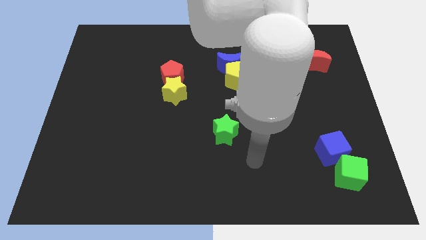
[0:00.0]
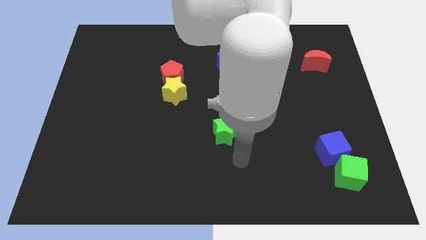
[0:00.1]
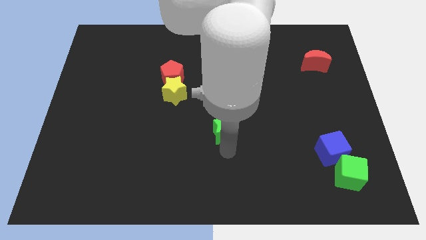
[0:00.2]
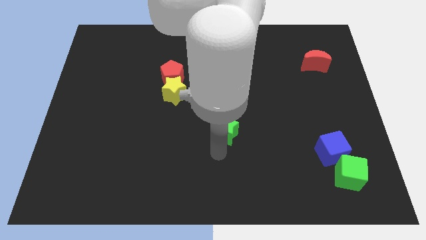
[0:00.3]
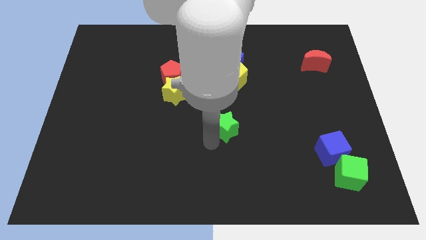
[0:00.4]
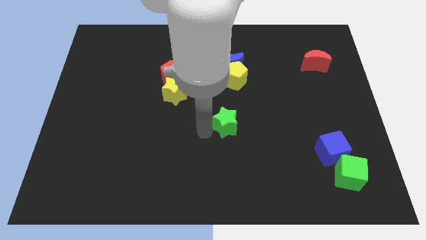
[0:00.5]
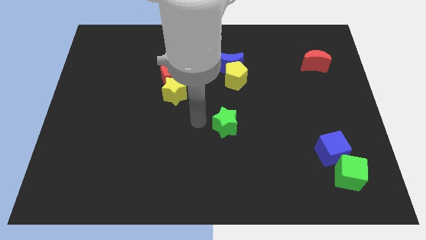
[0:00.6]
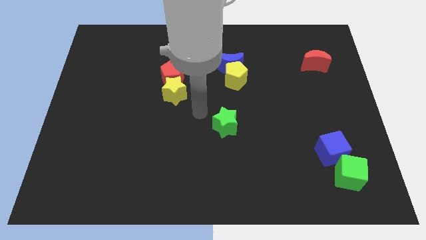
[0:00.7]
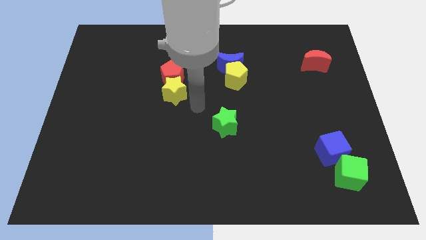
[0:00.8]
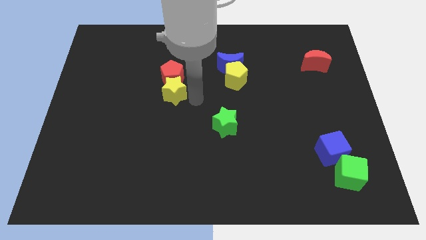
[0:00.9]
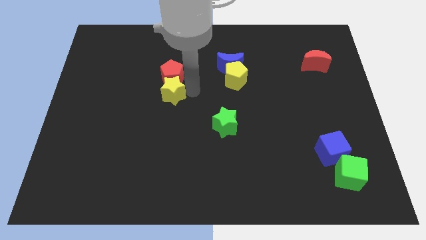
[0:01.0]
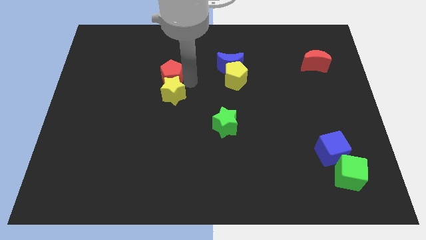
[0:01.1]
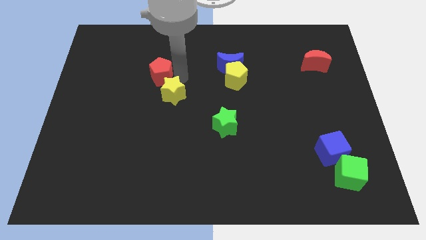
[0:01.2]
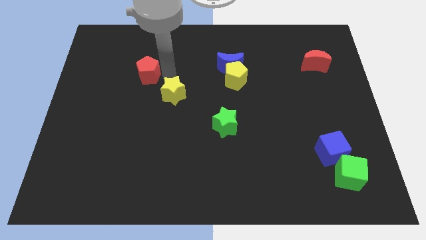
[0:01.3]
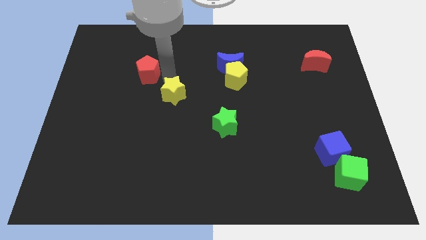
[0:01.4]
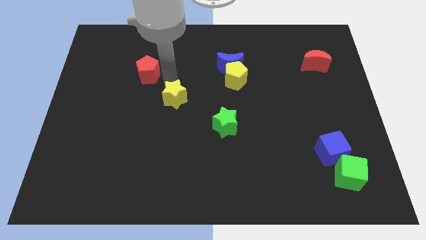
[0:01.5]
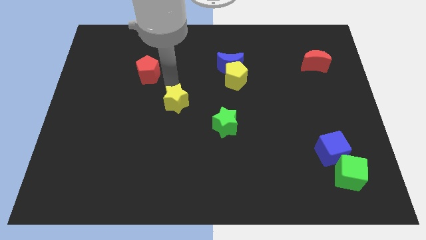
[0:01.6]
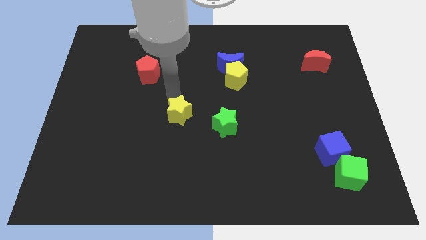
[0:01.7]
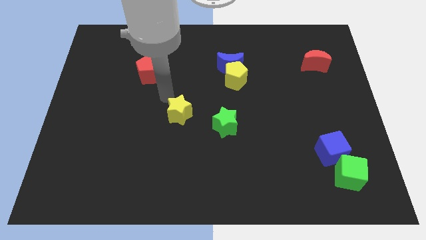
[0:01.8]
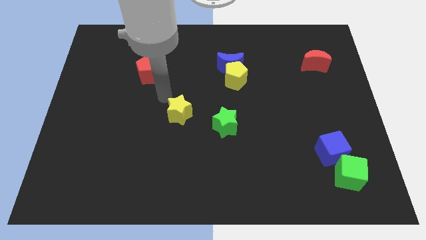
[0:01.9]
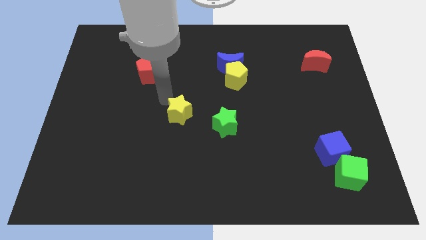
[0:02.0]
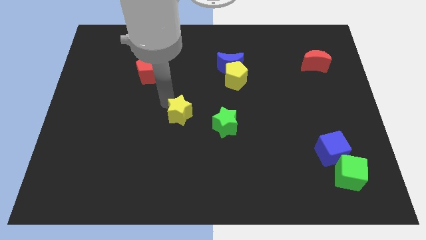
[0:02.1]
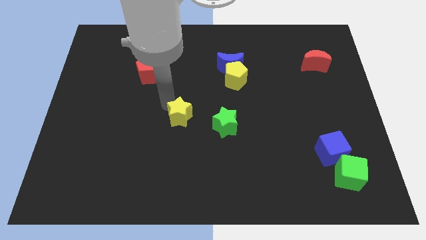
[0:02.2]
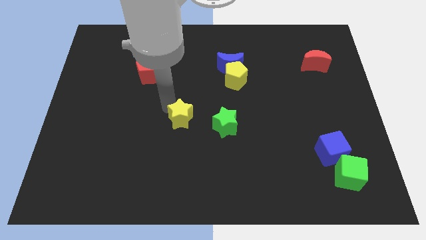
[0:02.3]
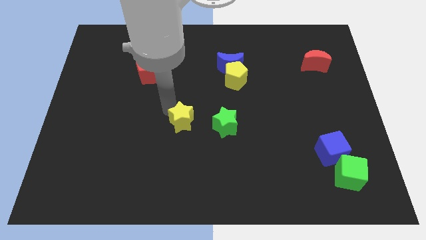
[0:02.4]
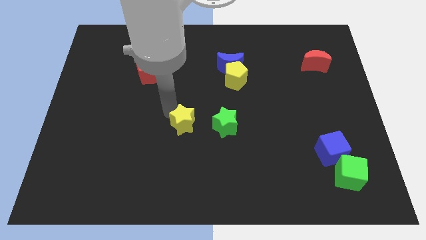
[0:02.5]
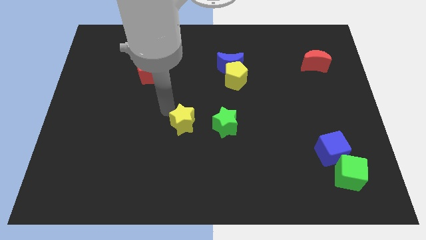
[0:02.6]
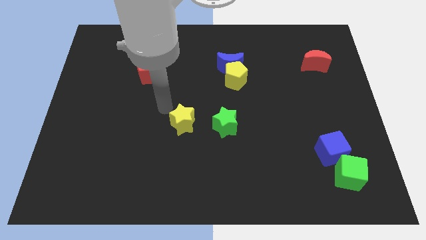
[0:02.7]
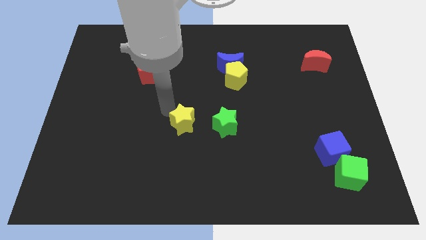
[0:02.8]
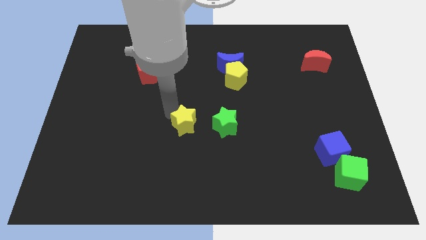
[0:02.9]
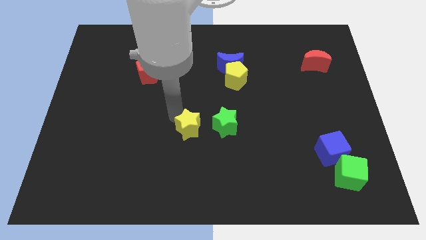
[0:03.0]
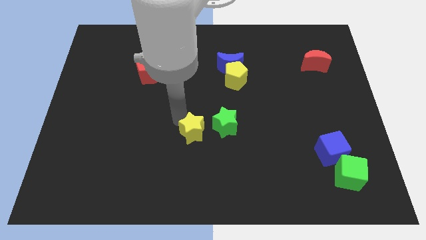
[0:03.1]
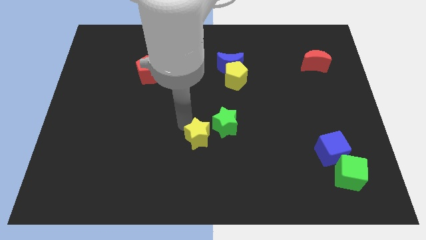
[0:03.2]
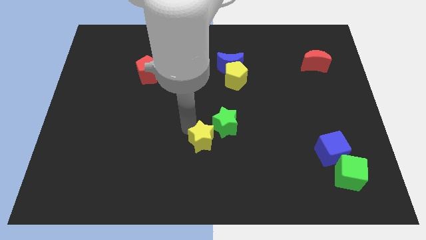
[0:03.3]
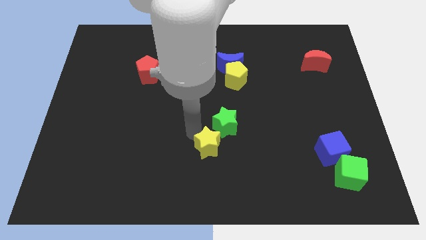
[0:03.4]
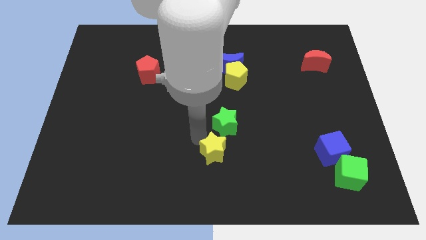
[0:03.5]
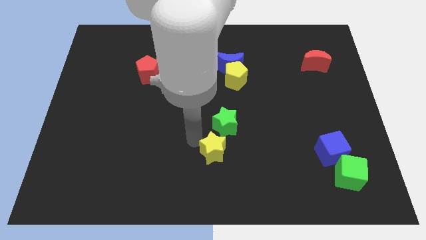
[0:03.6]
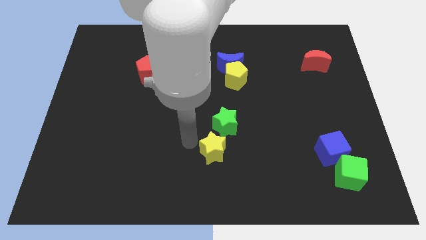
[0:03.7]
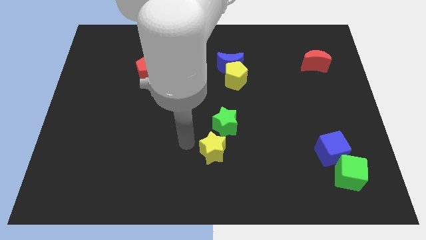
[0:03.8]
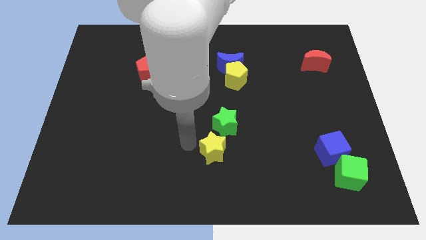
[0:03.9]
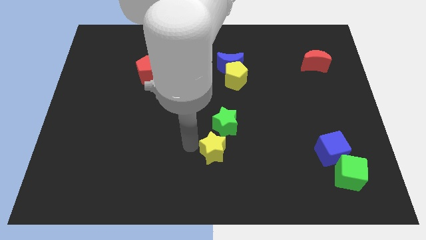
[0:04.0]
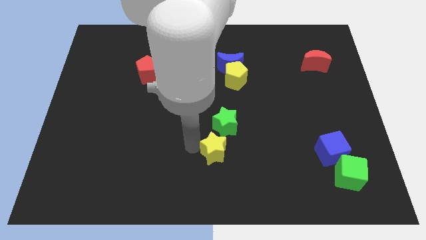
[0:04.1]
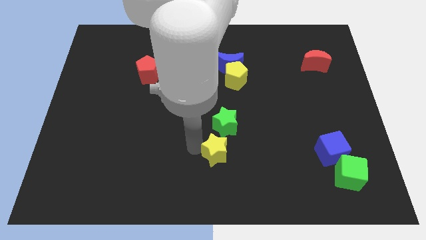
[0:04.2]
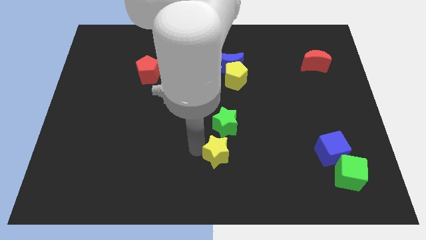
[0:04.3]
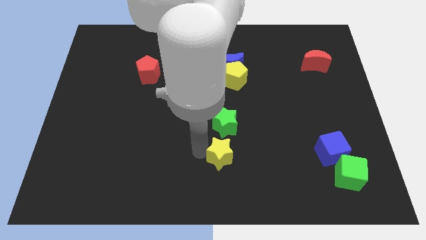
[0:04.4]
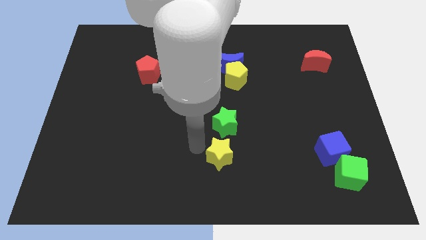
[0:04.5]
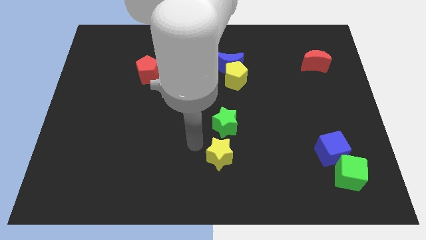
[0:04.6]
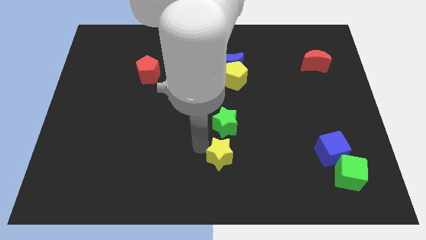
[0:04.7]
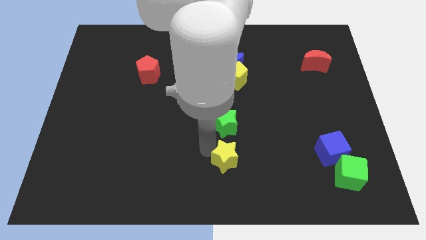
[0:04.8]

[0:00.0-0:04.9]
push the yellow star diagonally downwards and to the right

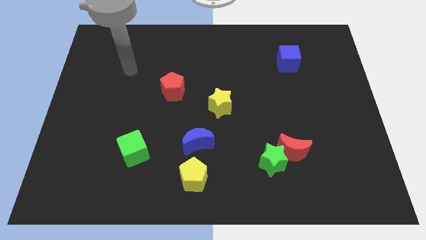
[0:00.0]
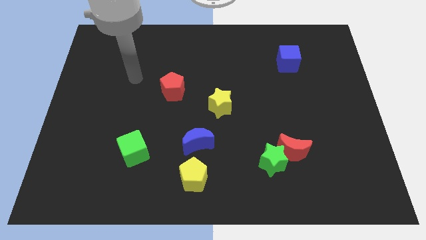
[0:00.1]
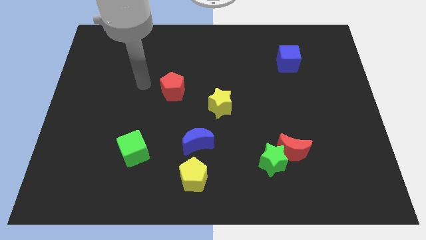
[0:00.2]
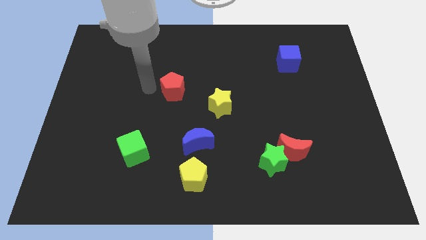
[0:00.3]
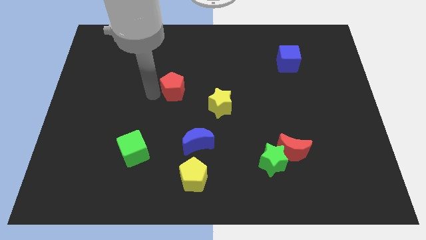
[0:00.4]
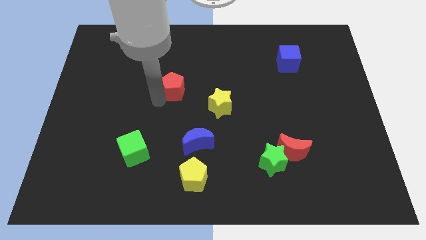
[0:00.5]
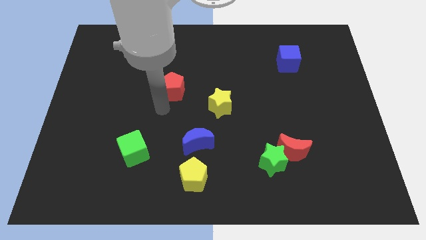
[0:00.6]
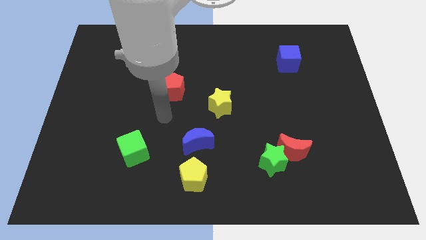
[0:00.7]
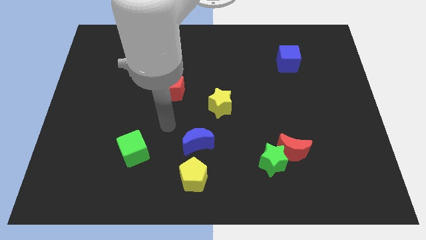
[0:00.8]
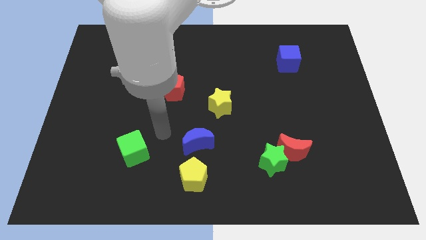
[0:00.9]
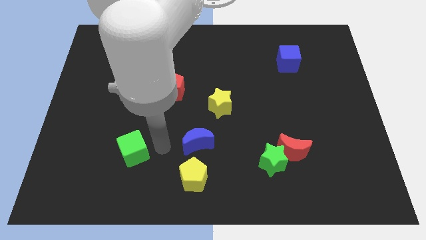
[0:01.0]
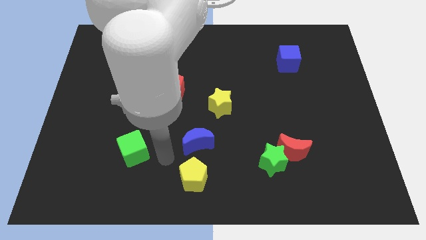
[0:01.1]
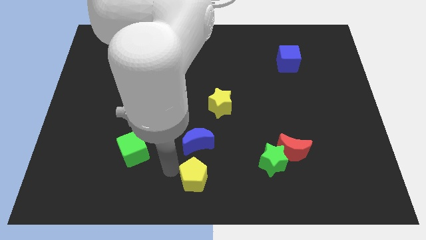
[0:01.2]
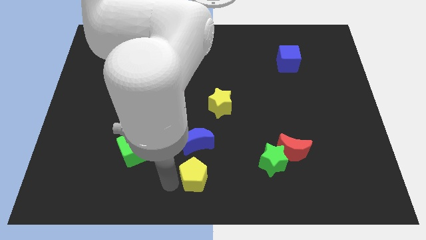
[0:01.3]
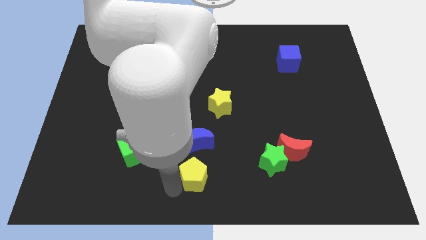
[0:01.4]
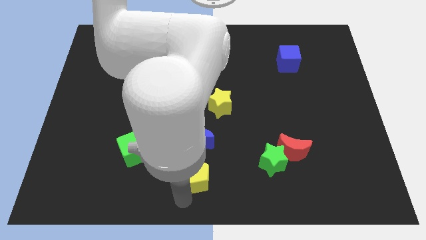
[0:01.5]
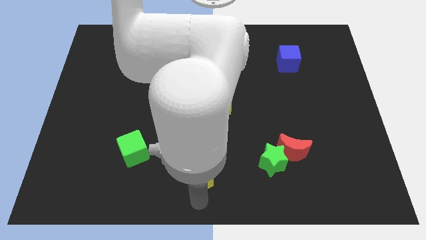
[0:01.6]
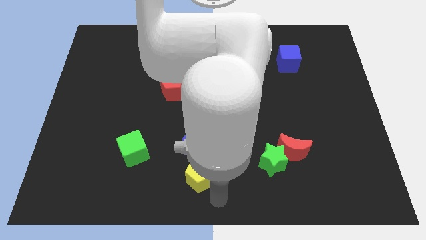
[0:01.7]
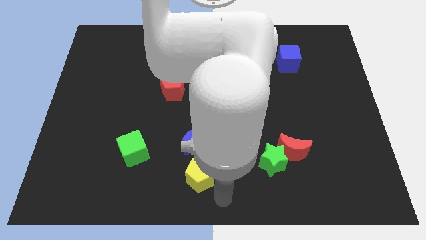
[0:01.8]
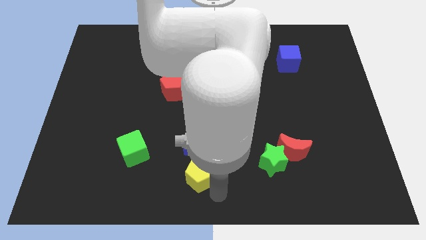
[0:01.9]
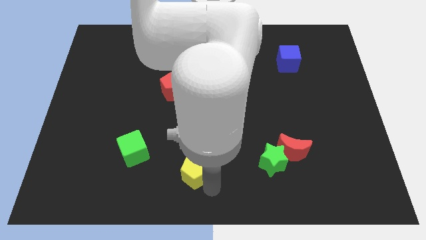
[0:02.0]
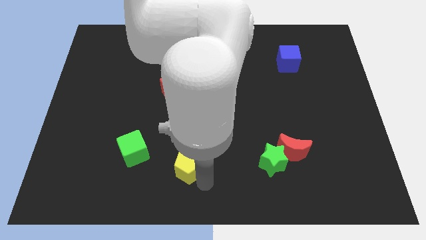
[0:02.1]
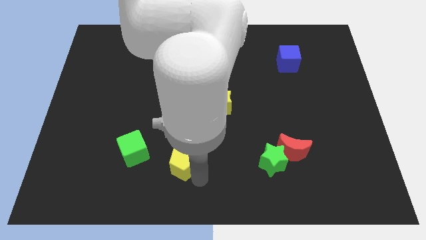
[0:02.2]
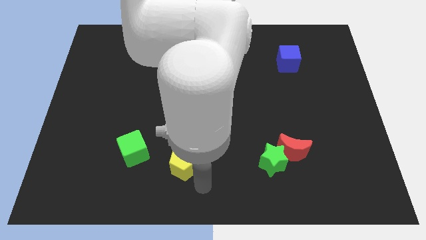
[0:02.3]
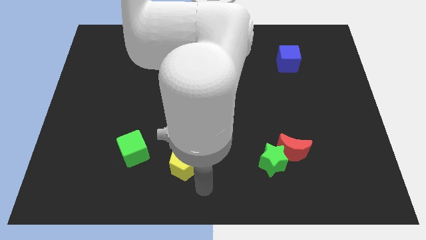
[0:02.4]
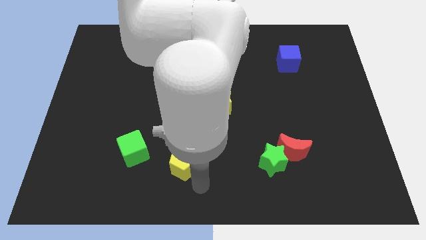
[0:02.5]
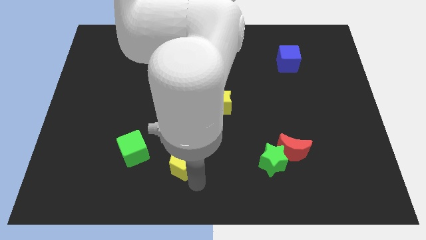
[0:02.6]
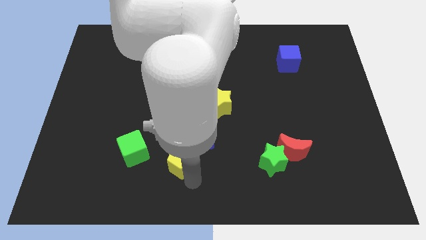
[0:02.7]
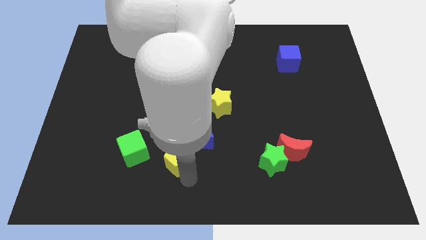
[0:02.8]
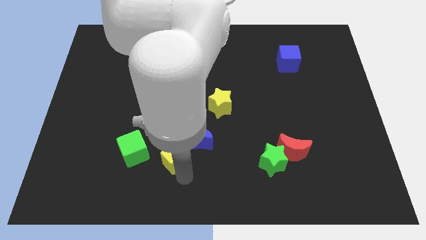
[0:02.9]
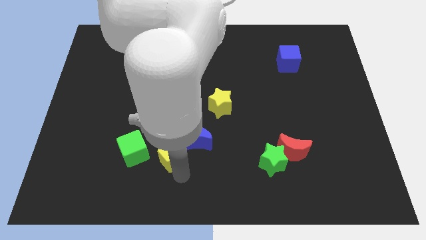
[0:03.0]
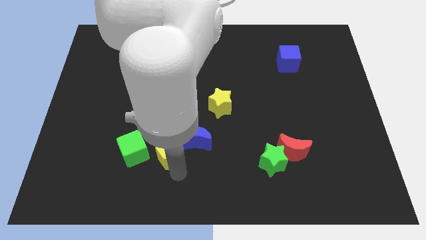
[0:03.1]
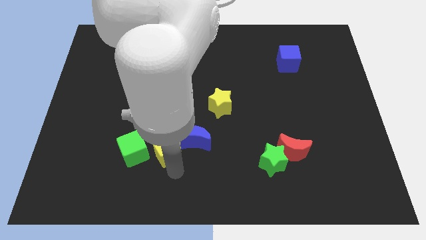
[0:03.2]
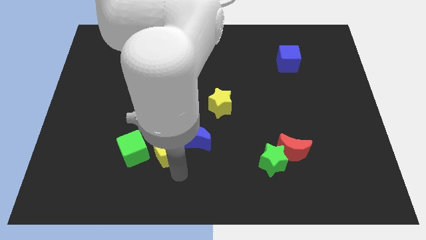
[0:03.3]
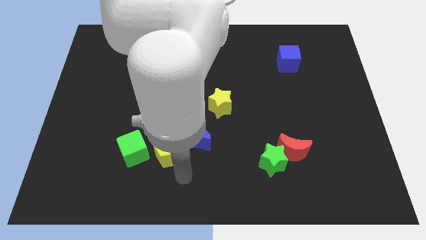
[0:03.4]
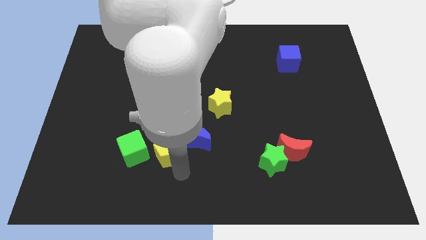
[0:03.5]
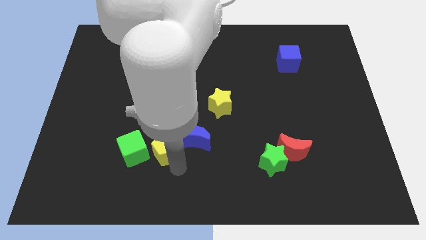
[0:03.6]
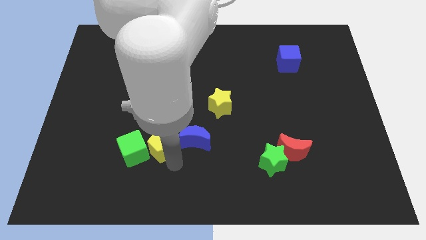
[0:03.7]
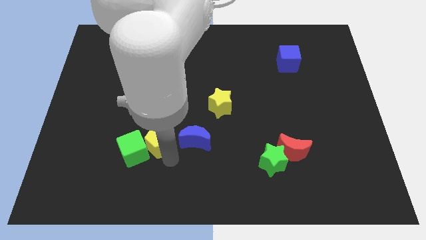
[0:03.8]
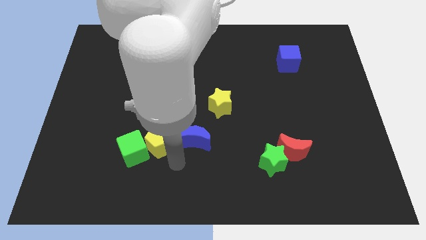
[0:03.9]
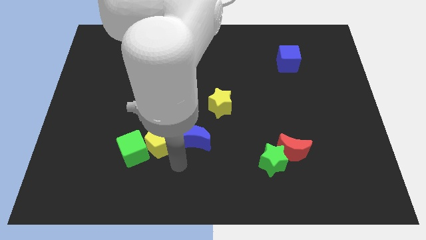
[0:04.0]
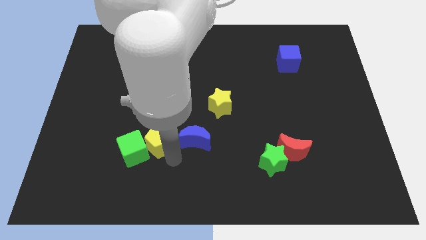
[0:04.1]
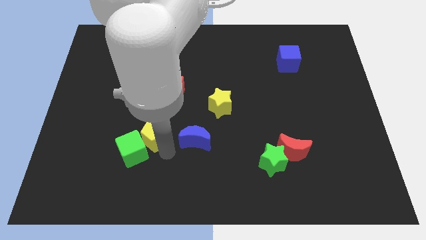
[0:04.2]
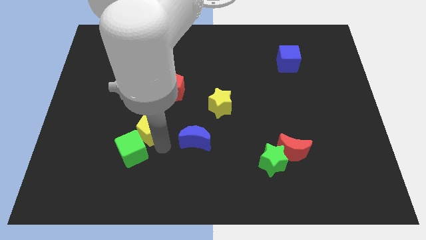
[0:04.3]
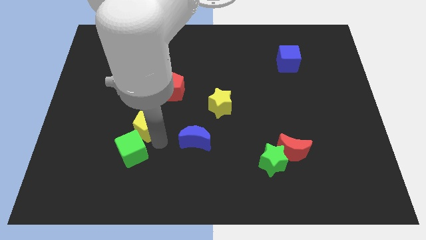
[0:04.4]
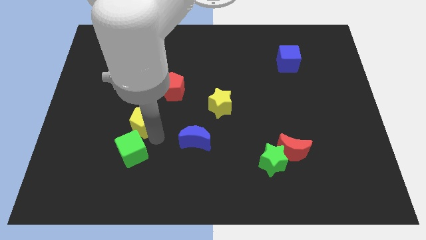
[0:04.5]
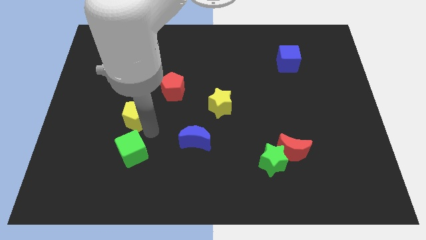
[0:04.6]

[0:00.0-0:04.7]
move the yellow pentagon diagonally upwards and to the left
